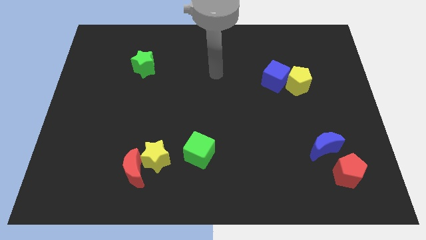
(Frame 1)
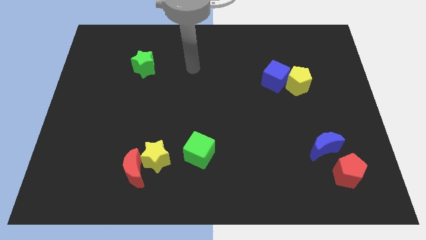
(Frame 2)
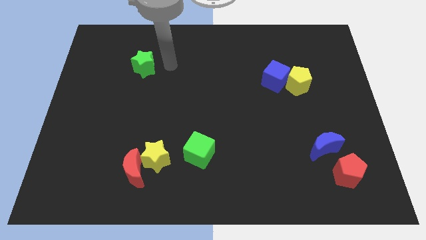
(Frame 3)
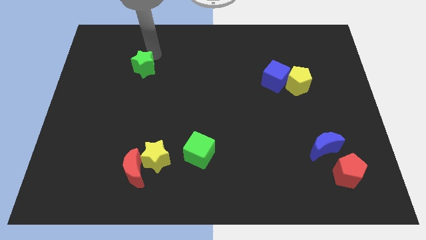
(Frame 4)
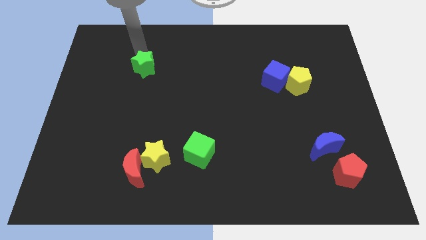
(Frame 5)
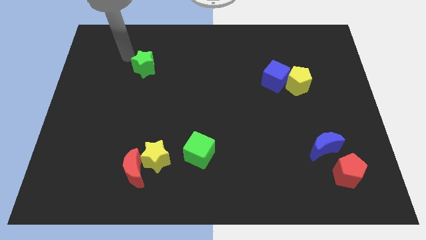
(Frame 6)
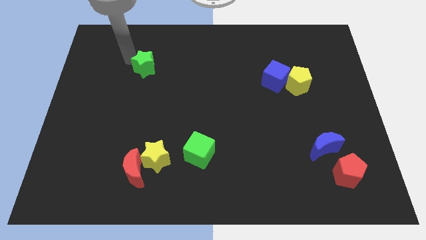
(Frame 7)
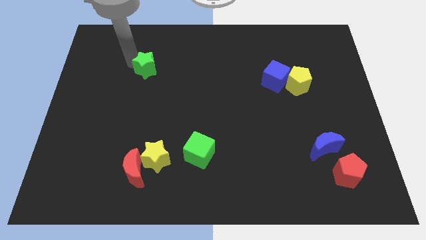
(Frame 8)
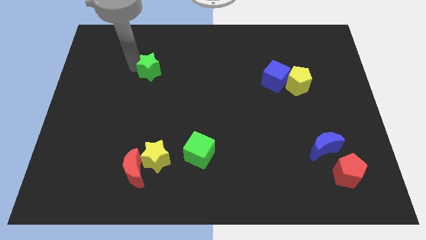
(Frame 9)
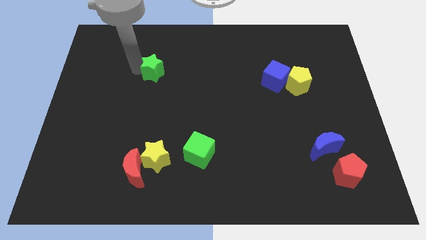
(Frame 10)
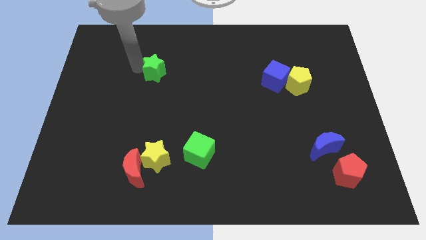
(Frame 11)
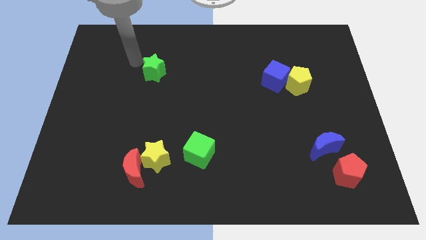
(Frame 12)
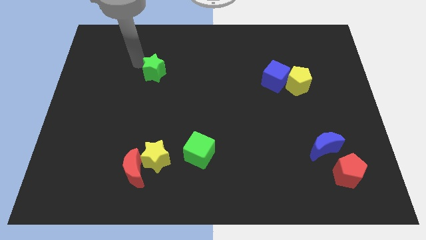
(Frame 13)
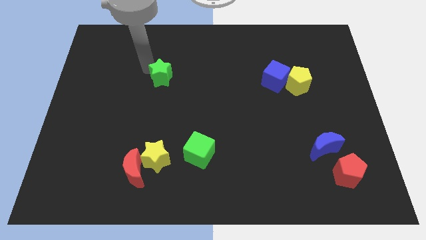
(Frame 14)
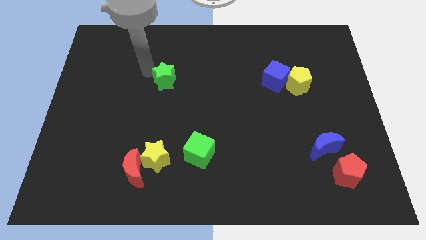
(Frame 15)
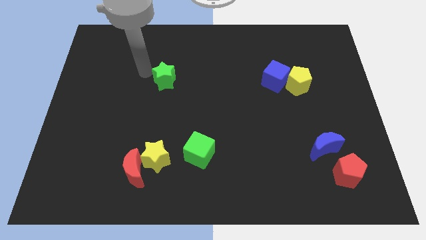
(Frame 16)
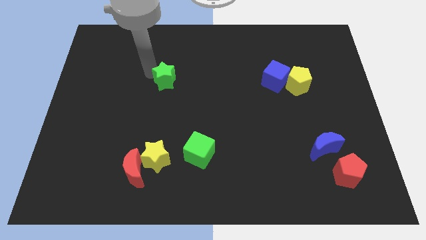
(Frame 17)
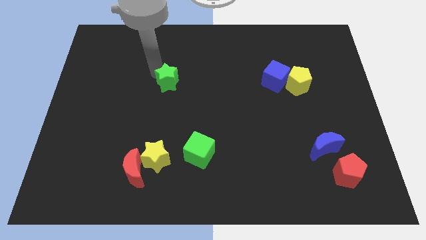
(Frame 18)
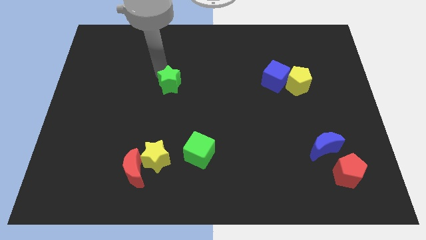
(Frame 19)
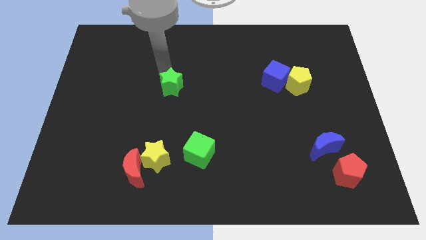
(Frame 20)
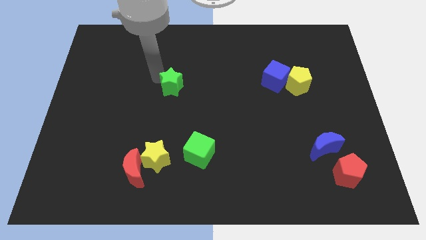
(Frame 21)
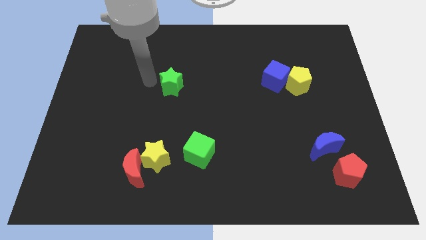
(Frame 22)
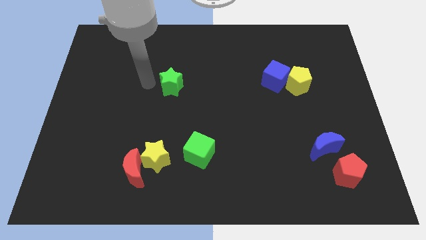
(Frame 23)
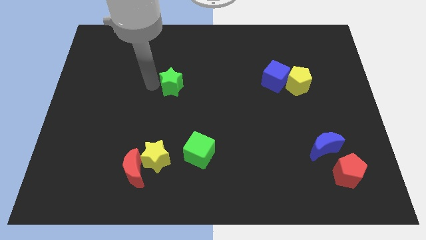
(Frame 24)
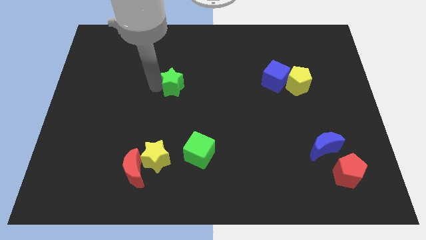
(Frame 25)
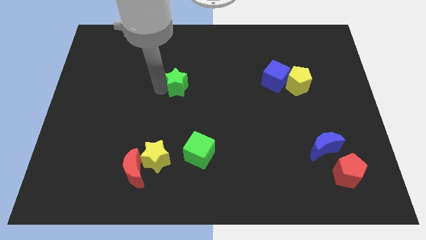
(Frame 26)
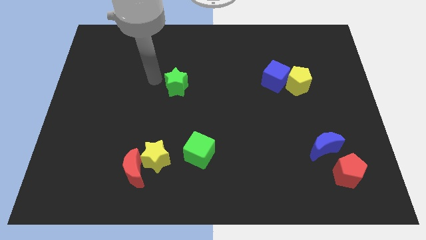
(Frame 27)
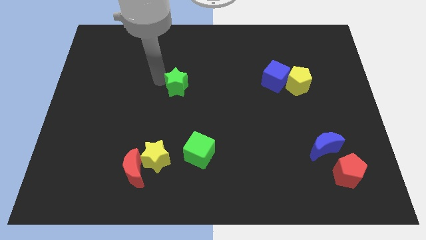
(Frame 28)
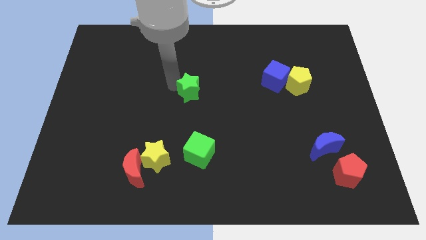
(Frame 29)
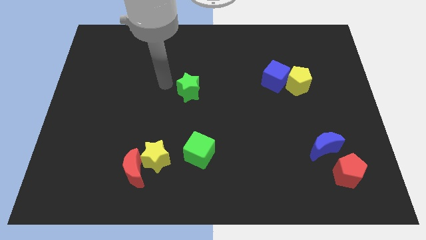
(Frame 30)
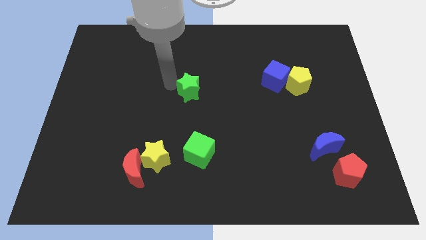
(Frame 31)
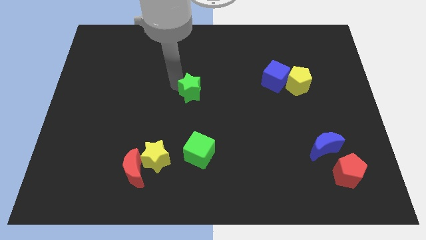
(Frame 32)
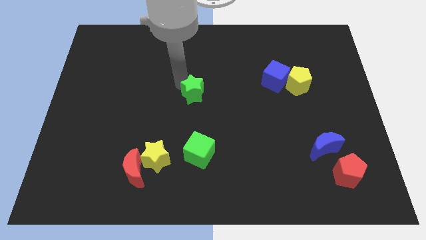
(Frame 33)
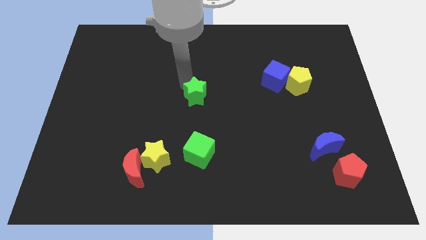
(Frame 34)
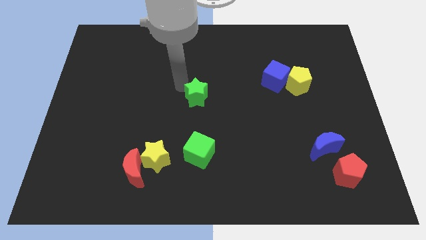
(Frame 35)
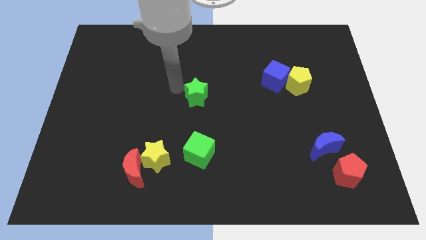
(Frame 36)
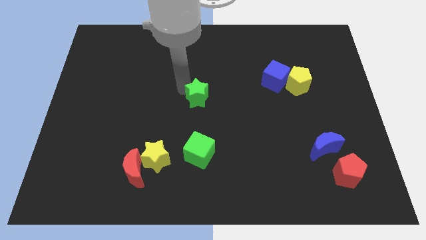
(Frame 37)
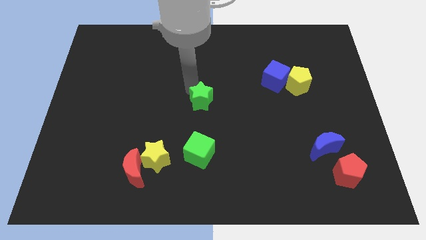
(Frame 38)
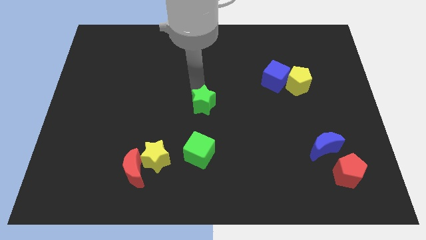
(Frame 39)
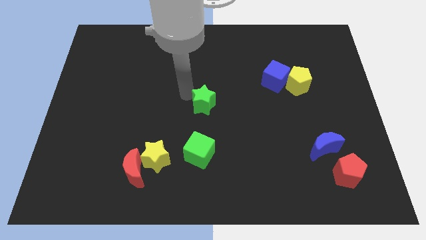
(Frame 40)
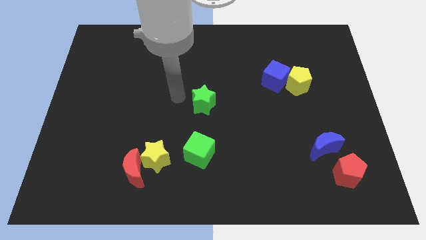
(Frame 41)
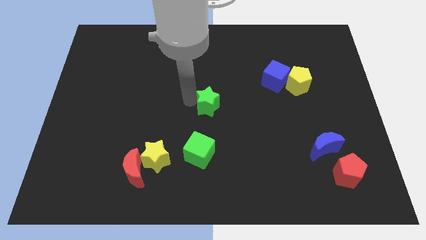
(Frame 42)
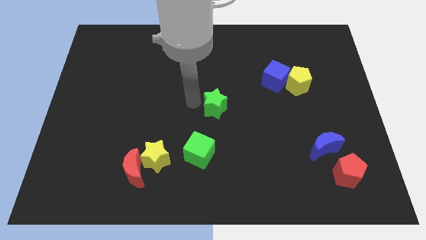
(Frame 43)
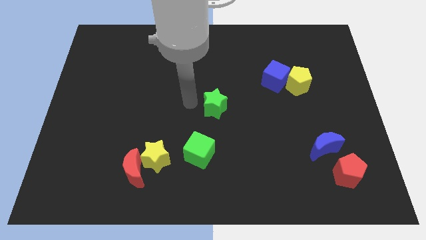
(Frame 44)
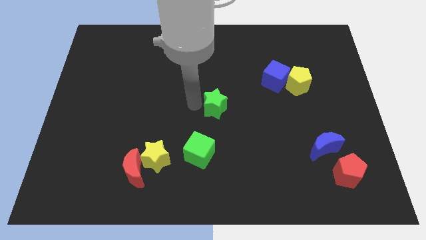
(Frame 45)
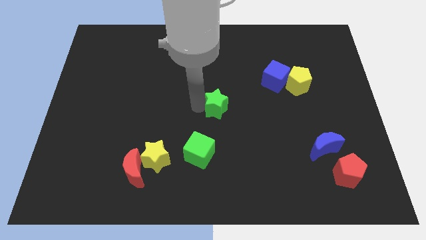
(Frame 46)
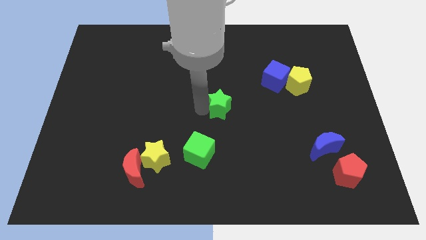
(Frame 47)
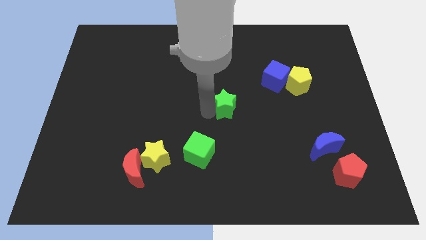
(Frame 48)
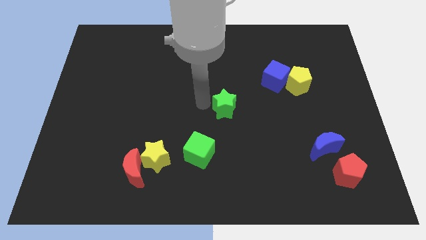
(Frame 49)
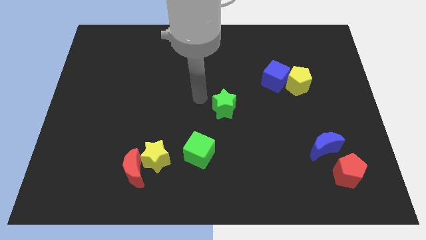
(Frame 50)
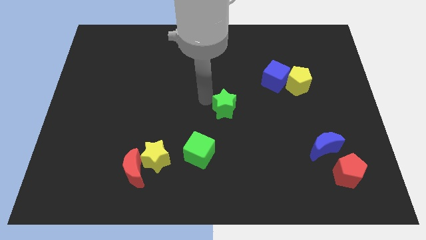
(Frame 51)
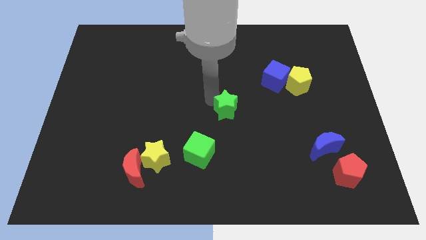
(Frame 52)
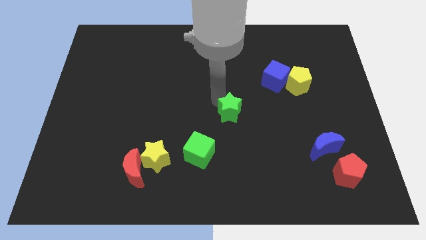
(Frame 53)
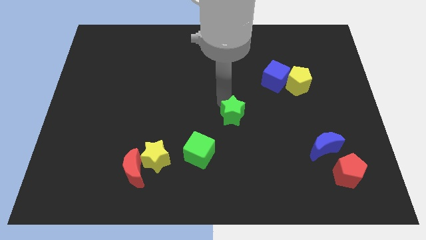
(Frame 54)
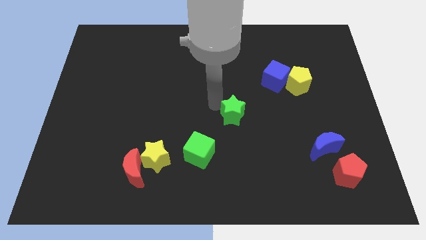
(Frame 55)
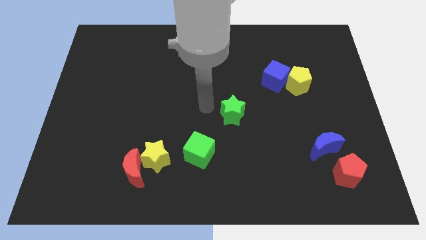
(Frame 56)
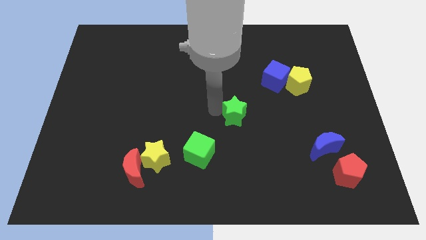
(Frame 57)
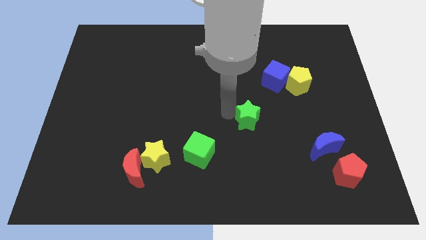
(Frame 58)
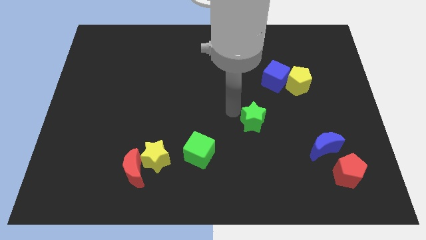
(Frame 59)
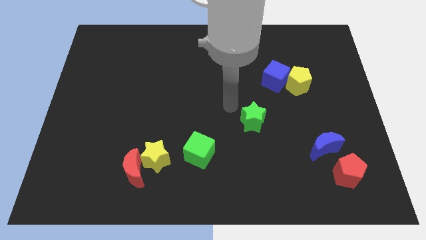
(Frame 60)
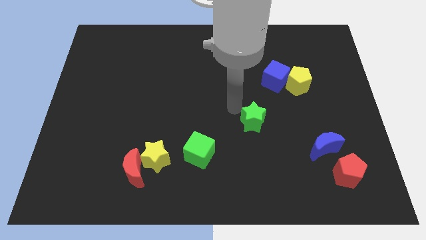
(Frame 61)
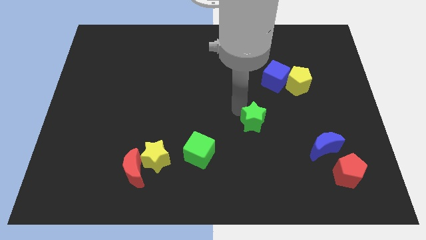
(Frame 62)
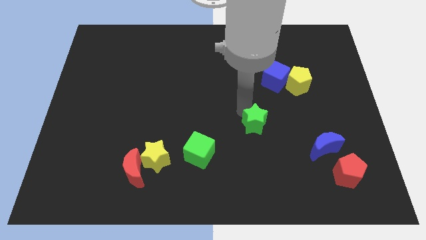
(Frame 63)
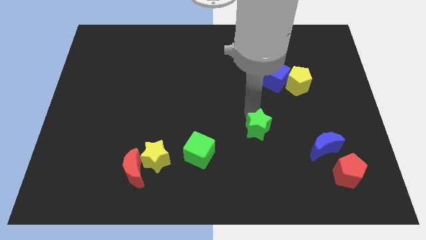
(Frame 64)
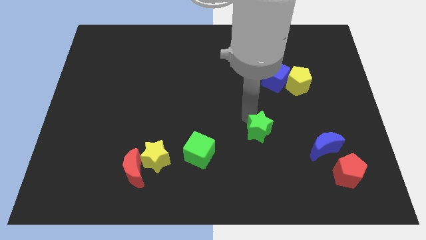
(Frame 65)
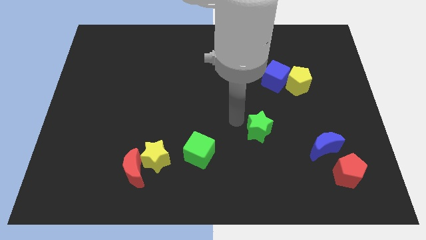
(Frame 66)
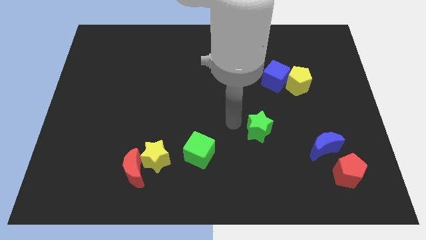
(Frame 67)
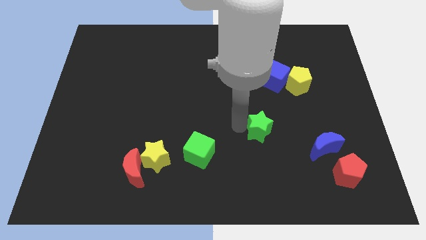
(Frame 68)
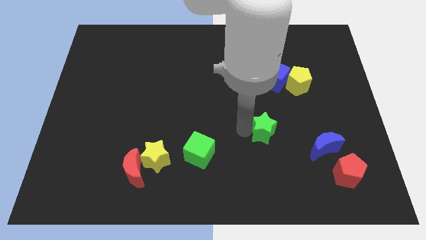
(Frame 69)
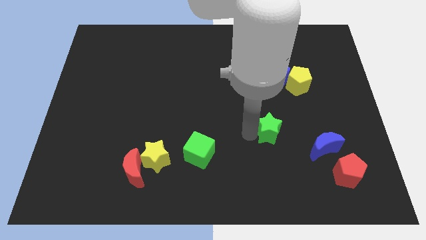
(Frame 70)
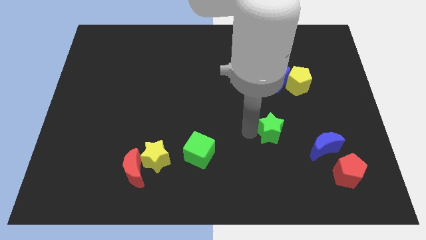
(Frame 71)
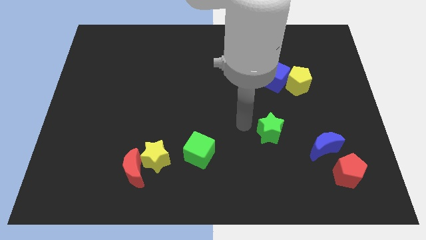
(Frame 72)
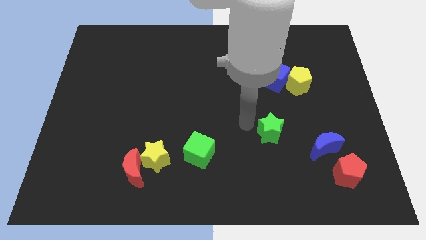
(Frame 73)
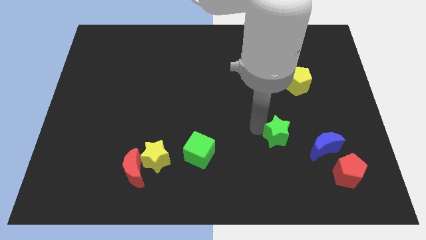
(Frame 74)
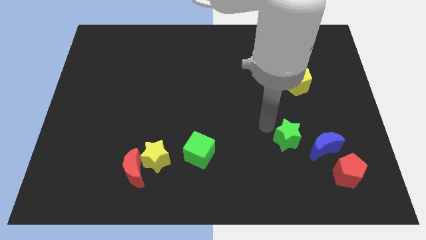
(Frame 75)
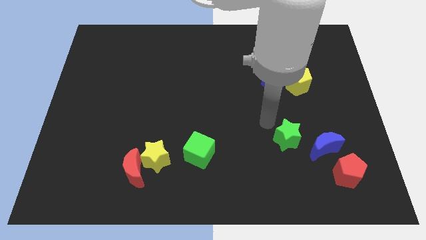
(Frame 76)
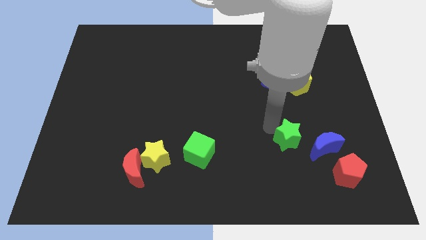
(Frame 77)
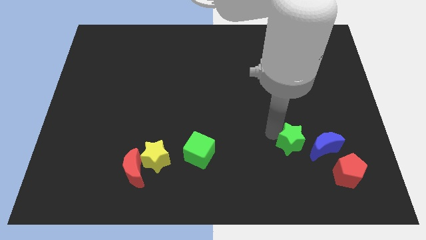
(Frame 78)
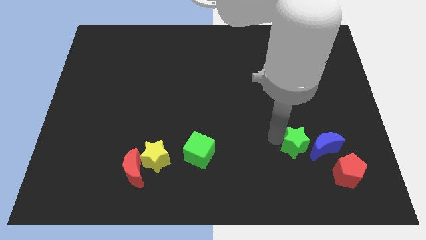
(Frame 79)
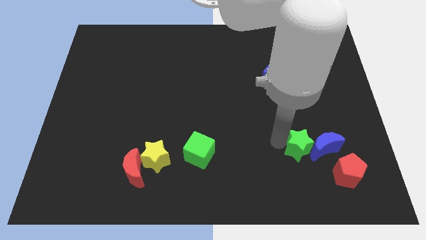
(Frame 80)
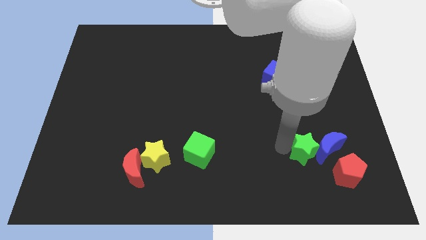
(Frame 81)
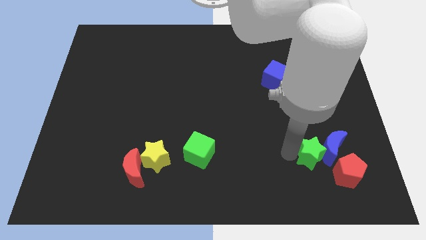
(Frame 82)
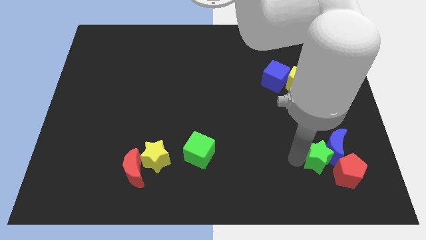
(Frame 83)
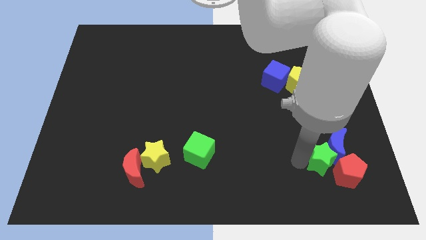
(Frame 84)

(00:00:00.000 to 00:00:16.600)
push the green star towards the red pentagon
